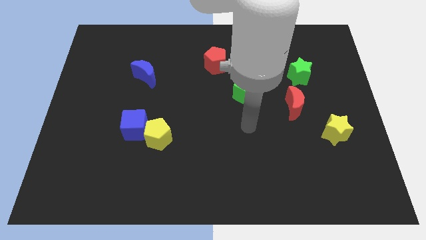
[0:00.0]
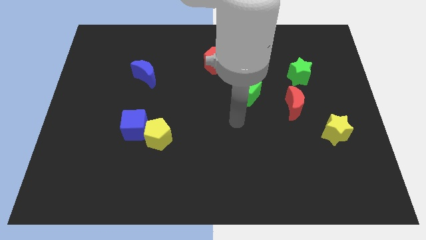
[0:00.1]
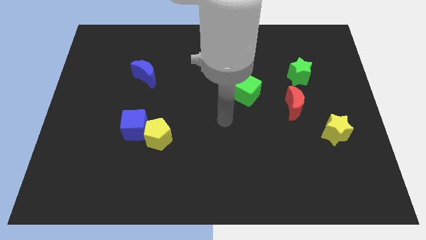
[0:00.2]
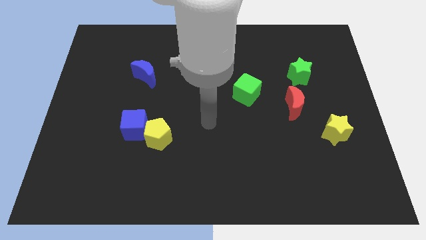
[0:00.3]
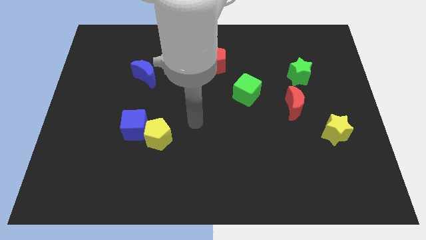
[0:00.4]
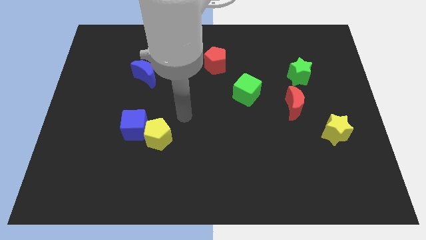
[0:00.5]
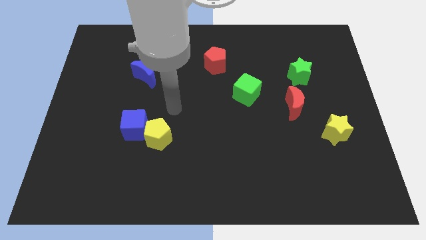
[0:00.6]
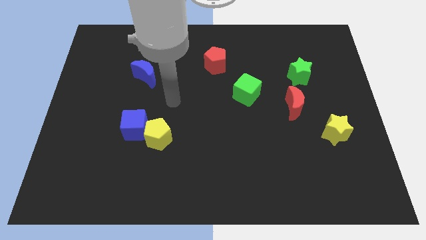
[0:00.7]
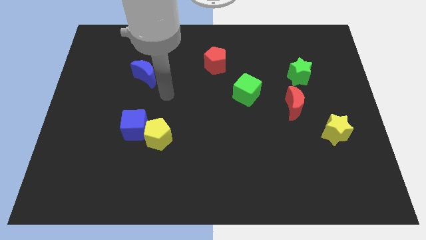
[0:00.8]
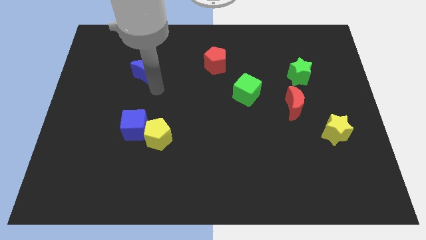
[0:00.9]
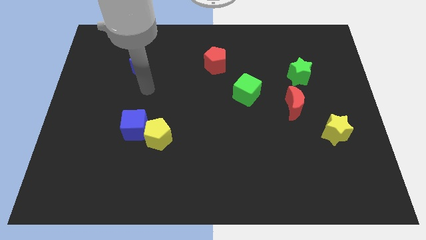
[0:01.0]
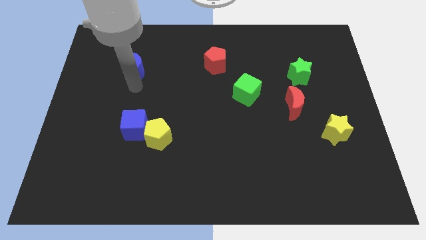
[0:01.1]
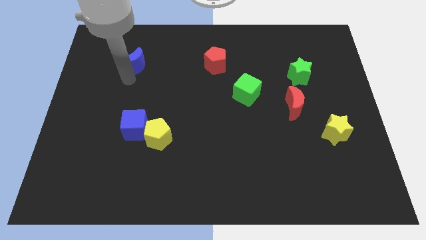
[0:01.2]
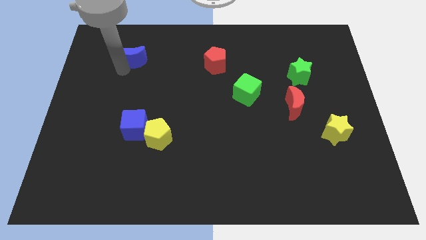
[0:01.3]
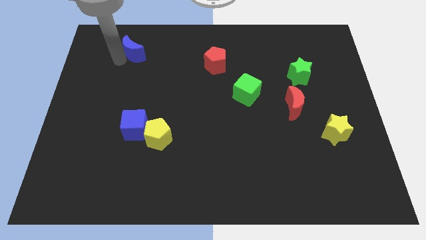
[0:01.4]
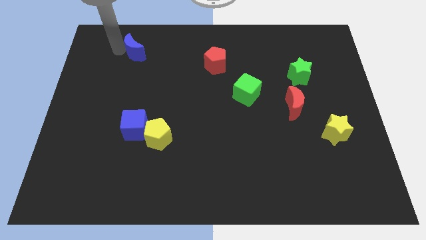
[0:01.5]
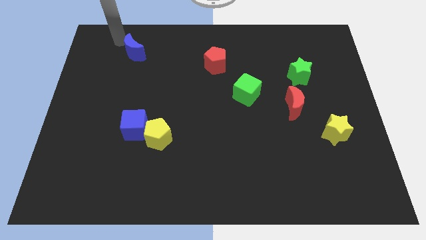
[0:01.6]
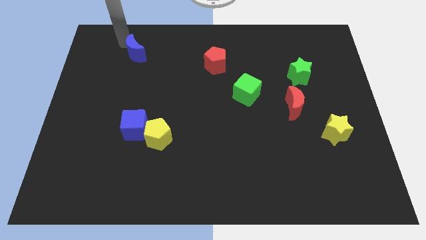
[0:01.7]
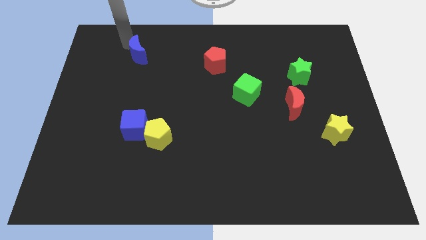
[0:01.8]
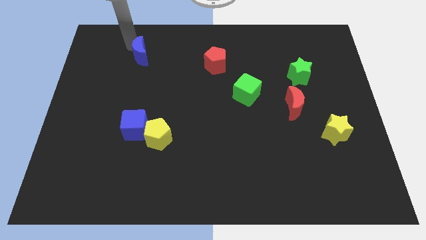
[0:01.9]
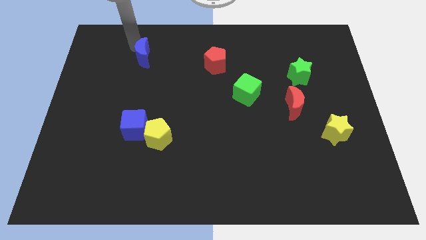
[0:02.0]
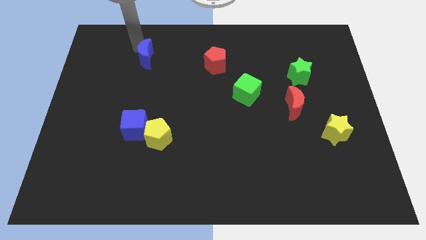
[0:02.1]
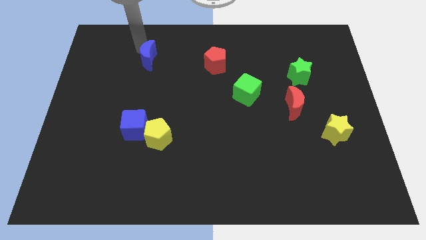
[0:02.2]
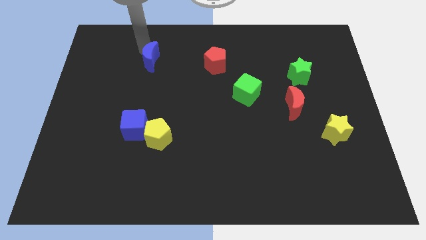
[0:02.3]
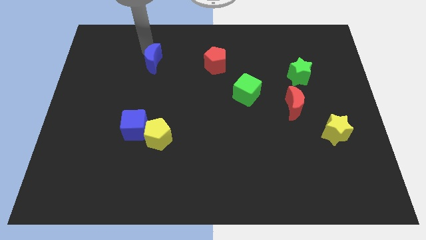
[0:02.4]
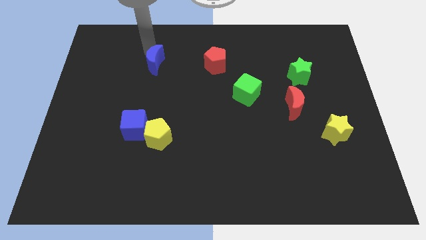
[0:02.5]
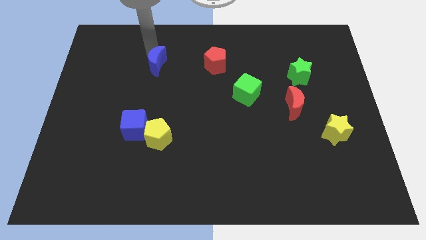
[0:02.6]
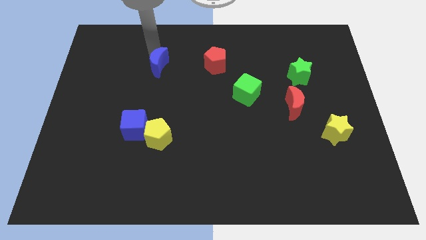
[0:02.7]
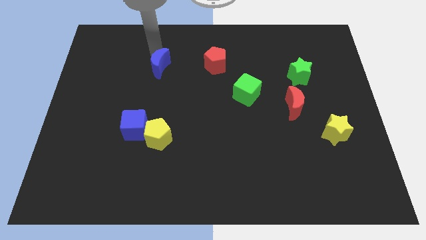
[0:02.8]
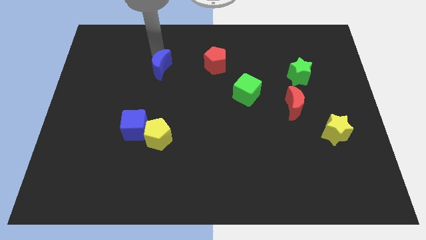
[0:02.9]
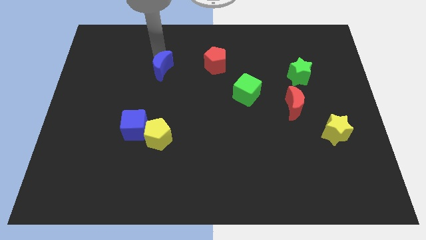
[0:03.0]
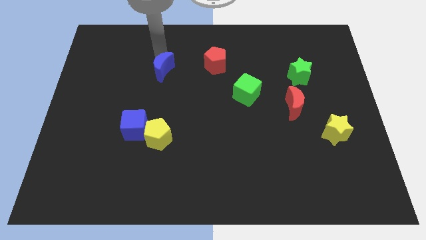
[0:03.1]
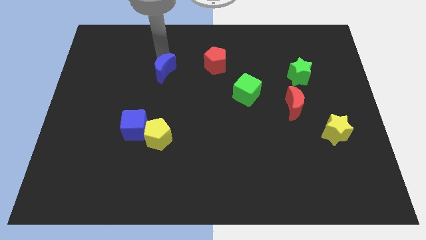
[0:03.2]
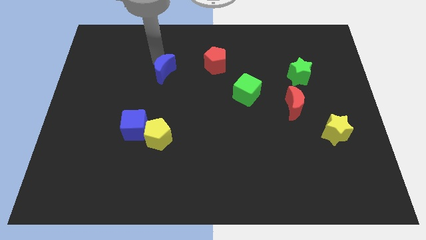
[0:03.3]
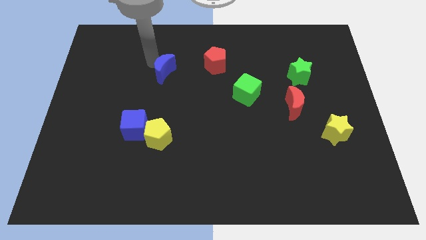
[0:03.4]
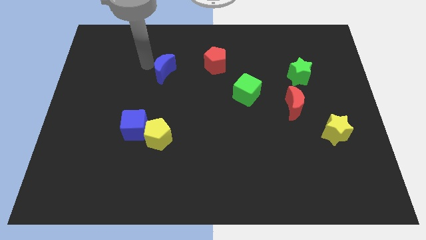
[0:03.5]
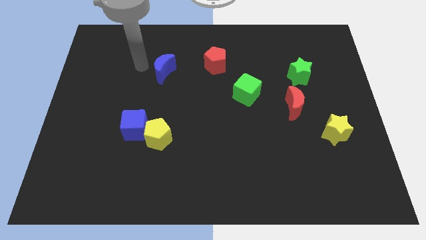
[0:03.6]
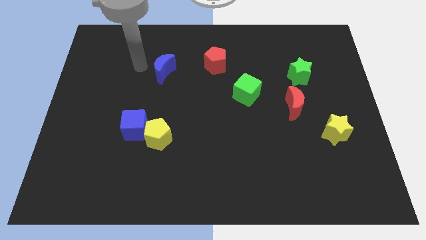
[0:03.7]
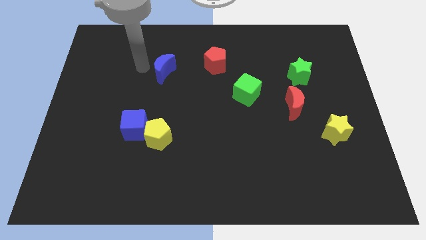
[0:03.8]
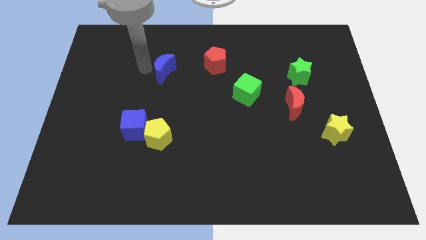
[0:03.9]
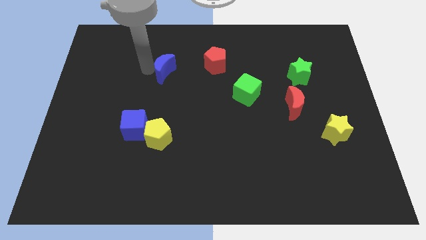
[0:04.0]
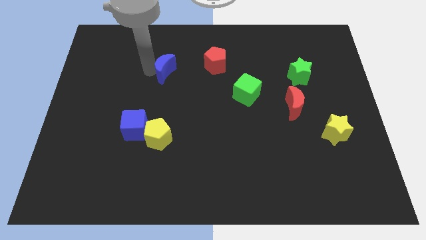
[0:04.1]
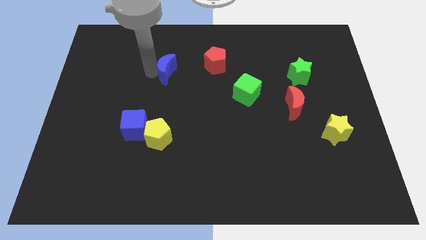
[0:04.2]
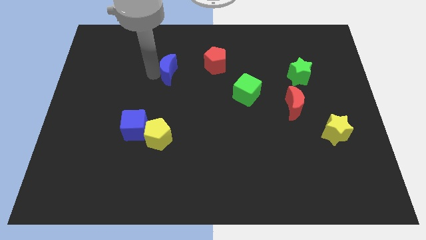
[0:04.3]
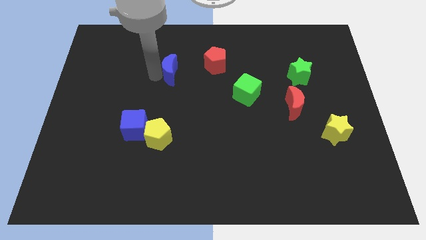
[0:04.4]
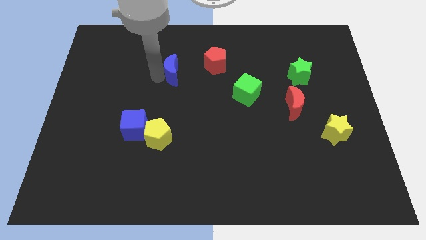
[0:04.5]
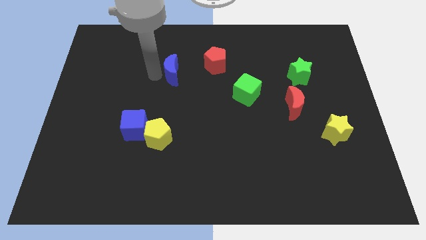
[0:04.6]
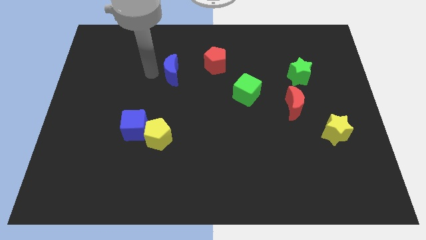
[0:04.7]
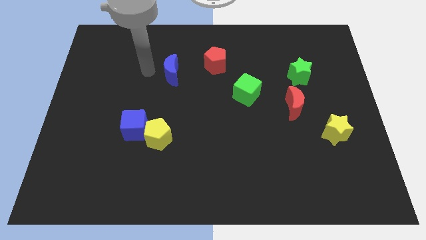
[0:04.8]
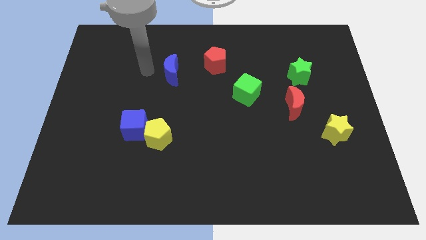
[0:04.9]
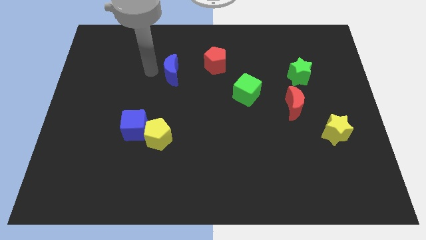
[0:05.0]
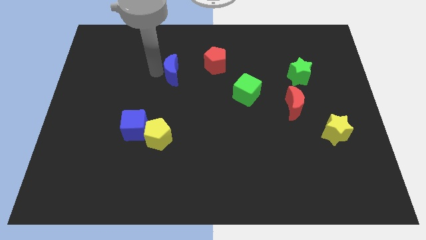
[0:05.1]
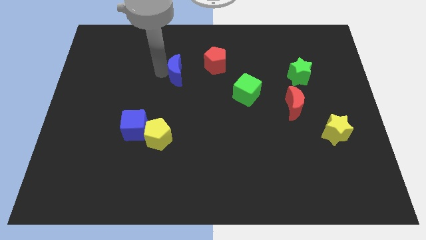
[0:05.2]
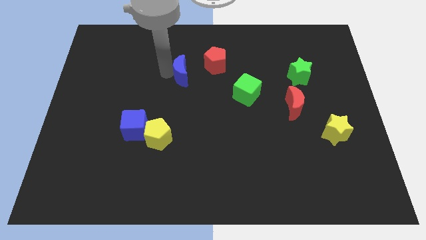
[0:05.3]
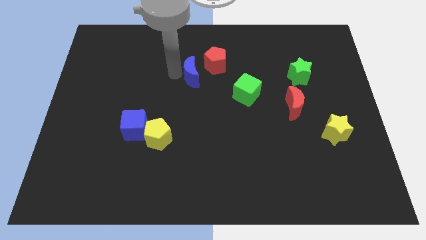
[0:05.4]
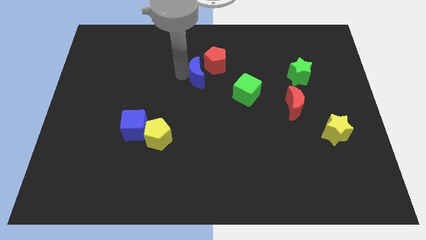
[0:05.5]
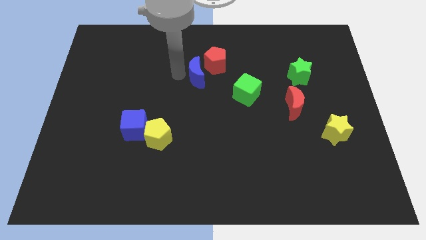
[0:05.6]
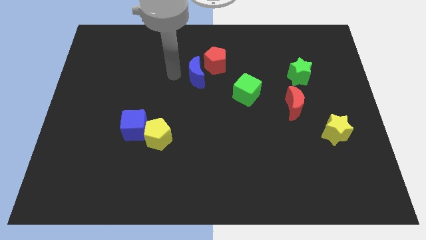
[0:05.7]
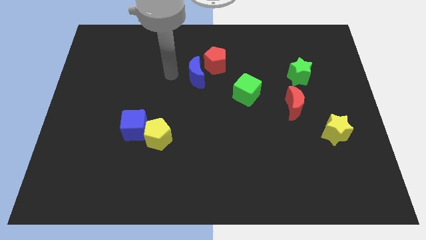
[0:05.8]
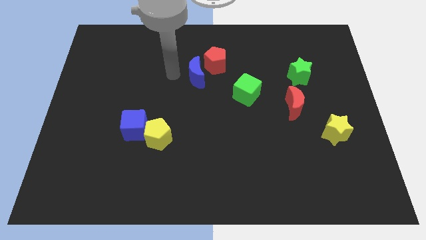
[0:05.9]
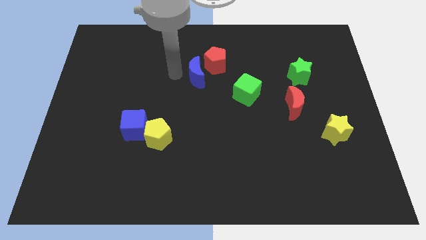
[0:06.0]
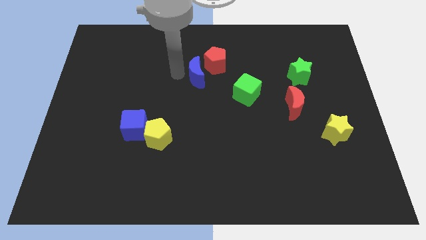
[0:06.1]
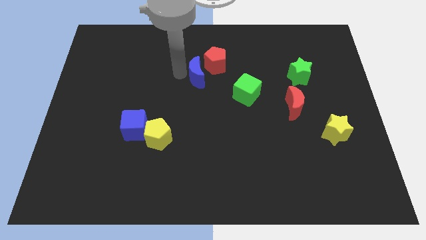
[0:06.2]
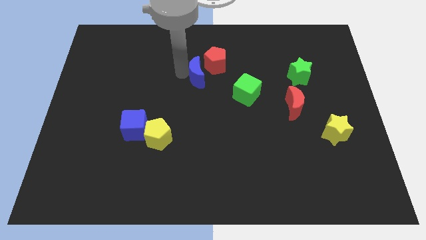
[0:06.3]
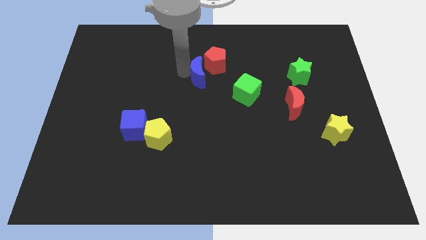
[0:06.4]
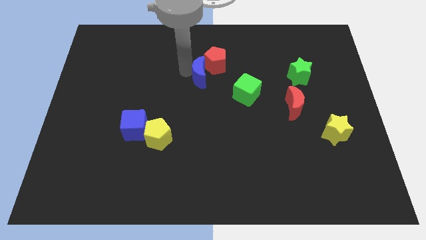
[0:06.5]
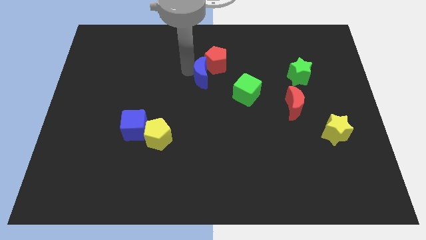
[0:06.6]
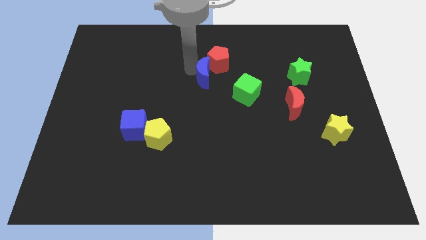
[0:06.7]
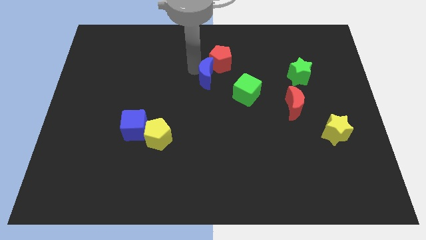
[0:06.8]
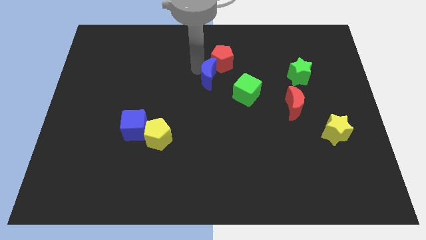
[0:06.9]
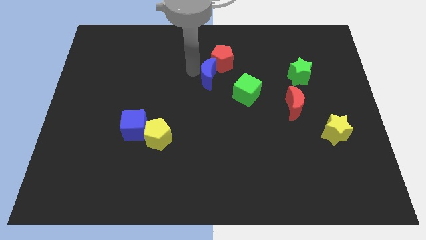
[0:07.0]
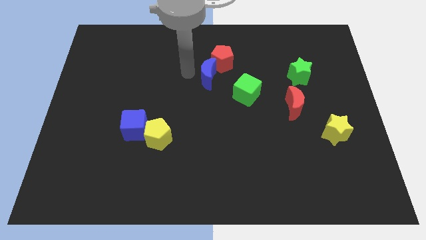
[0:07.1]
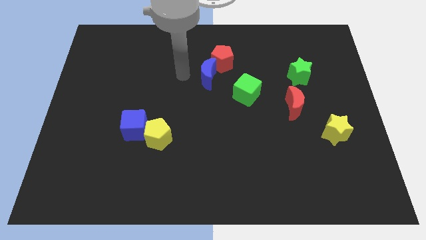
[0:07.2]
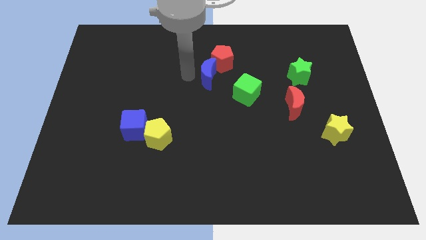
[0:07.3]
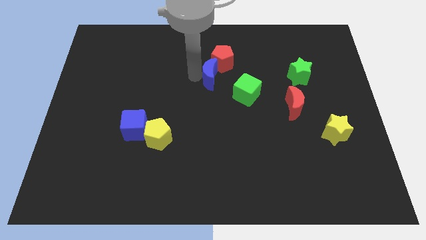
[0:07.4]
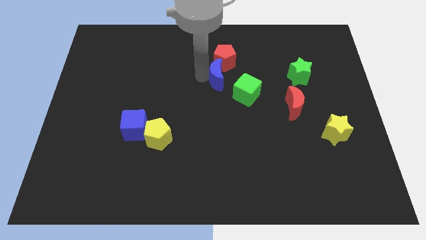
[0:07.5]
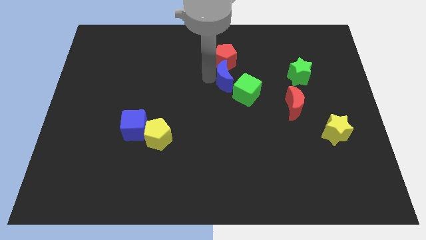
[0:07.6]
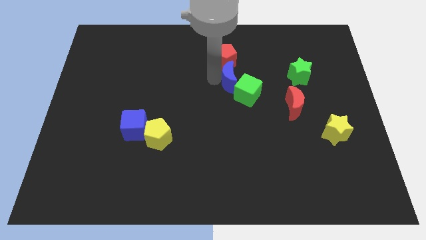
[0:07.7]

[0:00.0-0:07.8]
push the blue moon right

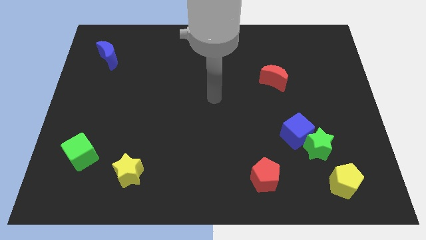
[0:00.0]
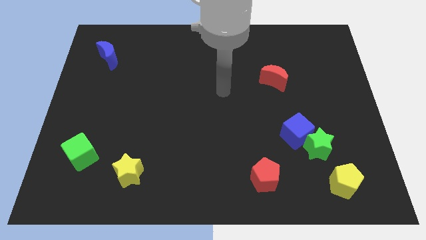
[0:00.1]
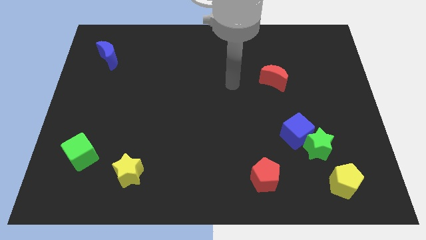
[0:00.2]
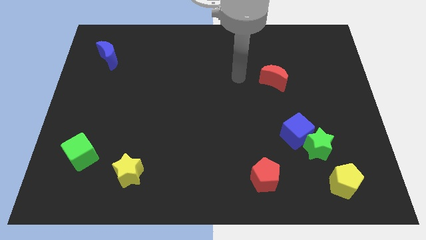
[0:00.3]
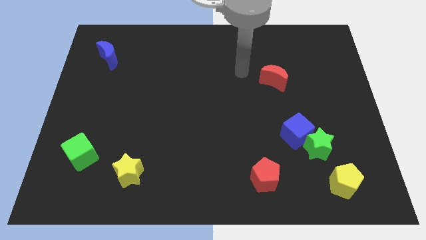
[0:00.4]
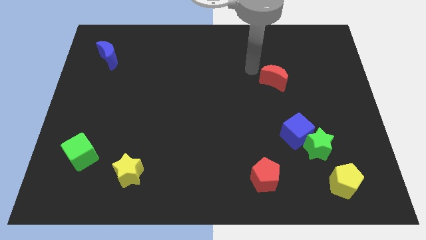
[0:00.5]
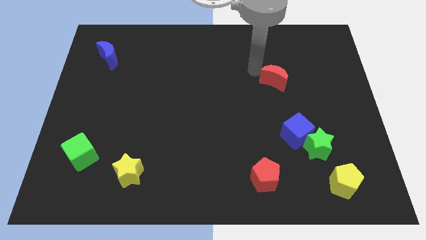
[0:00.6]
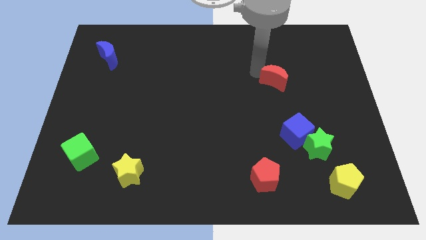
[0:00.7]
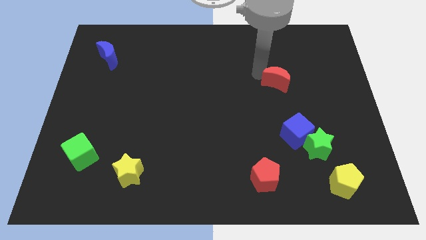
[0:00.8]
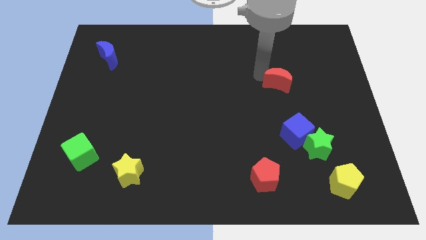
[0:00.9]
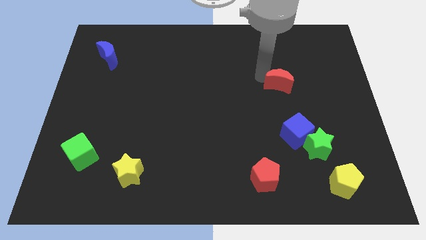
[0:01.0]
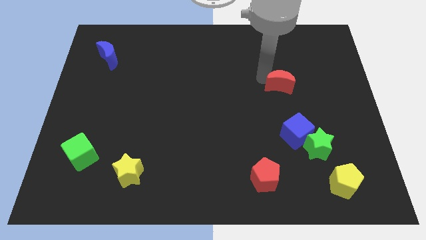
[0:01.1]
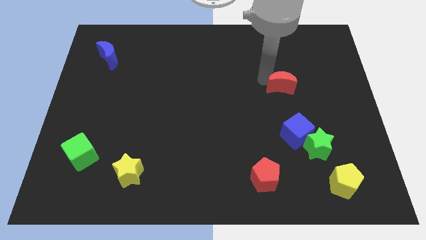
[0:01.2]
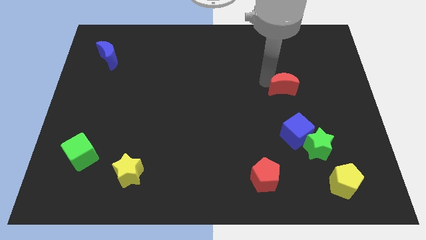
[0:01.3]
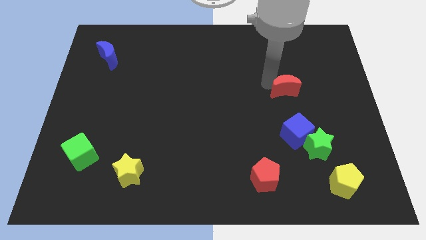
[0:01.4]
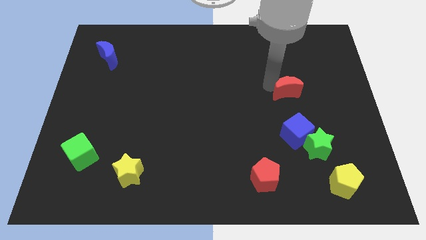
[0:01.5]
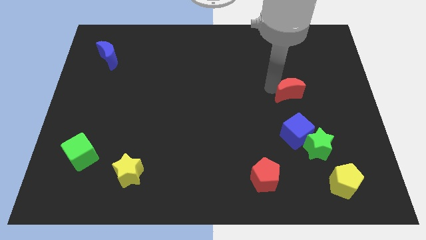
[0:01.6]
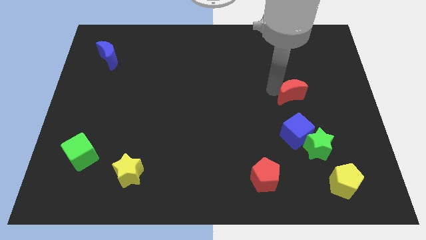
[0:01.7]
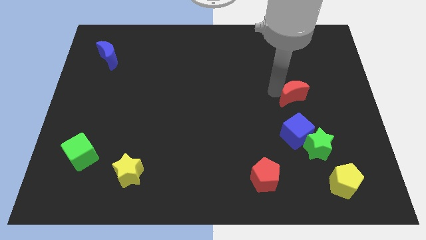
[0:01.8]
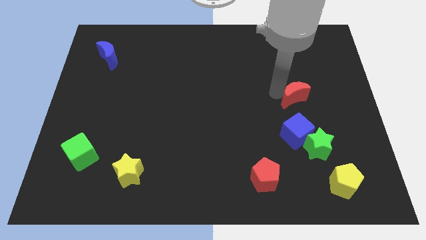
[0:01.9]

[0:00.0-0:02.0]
slide the red moon down and to the right diagonally a little
